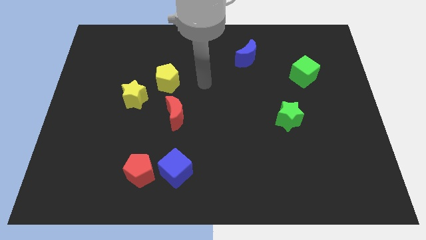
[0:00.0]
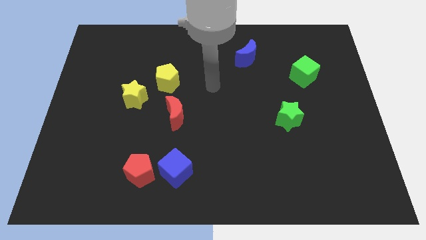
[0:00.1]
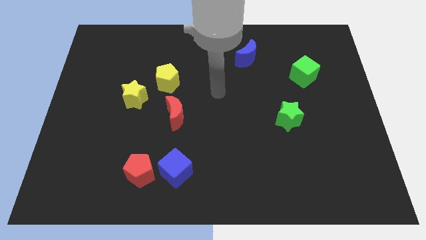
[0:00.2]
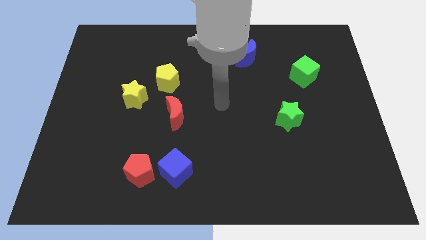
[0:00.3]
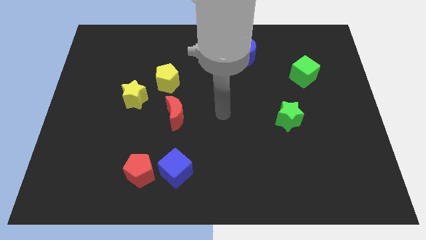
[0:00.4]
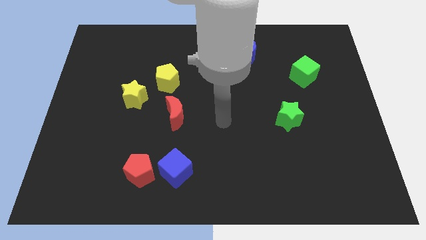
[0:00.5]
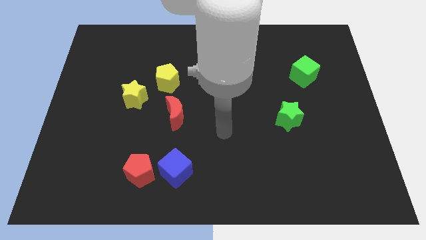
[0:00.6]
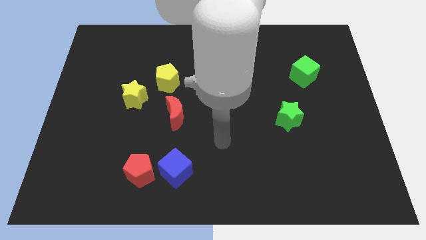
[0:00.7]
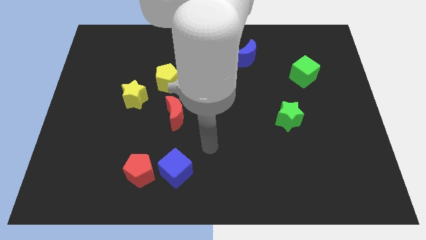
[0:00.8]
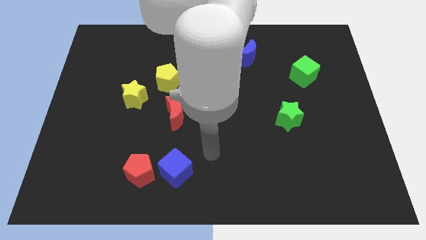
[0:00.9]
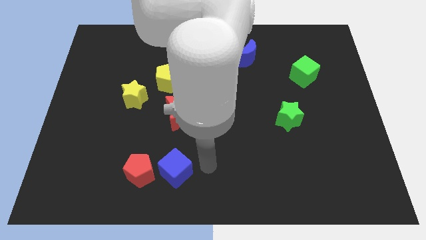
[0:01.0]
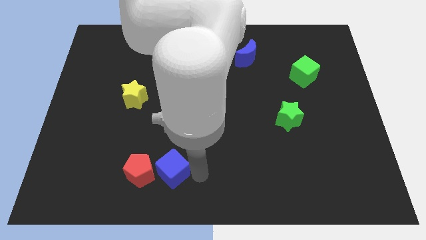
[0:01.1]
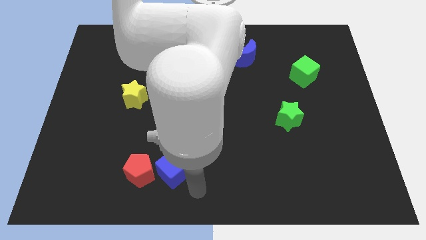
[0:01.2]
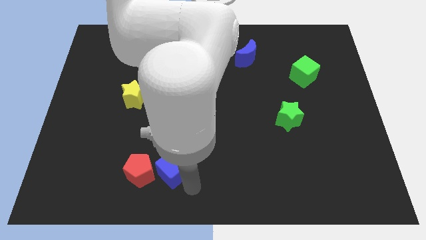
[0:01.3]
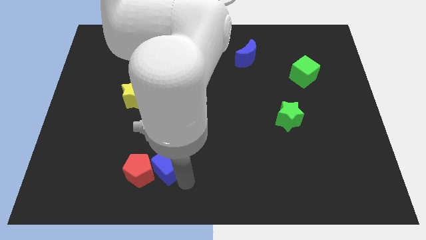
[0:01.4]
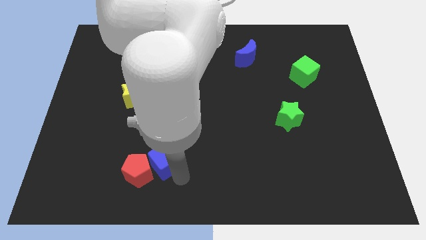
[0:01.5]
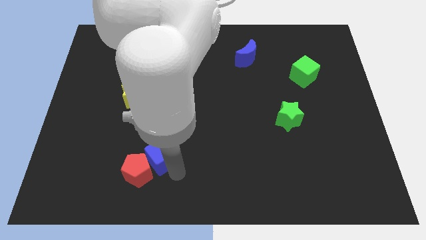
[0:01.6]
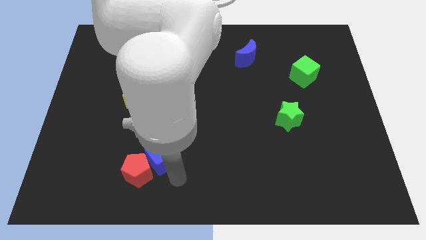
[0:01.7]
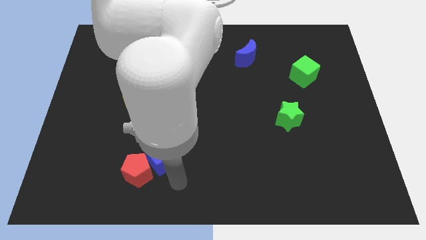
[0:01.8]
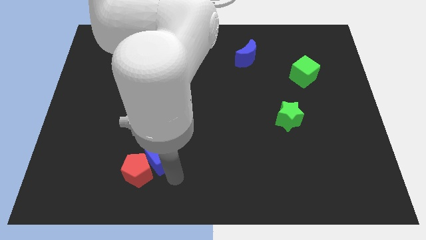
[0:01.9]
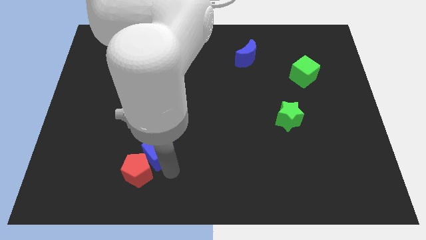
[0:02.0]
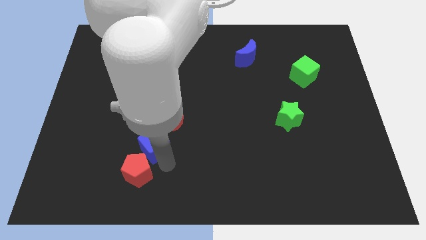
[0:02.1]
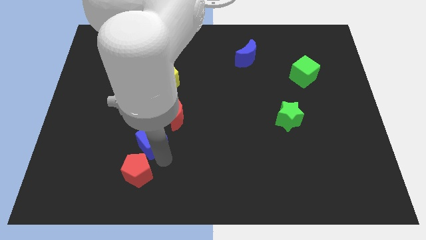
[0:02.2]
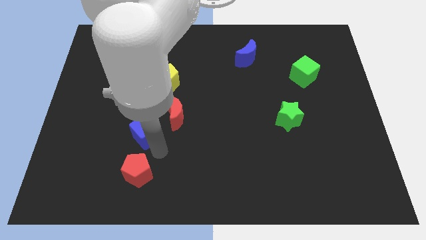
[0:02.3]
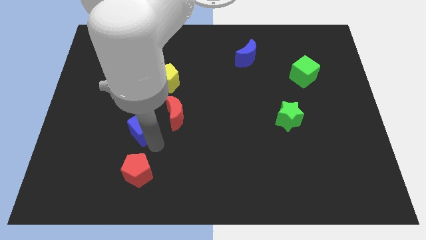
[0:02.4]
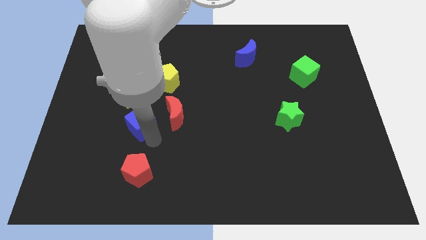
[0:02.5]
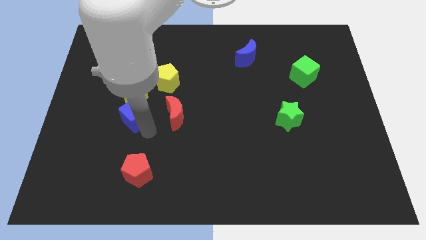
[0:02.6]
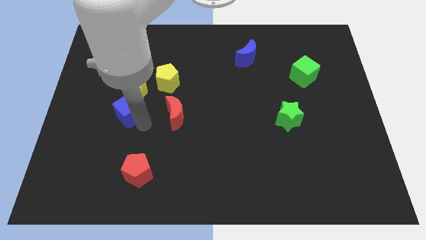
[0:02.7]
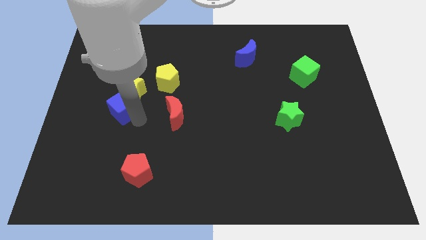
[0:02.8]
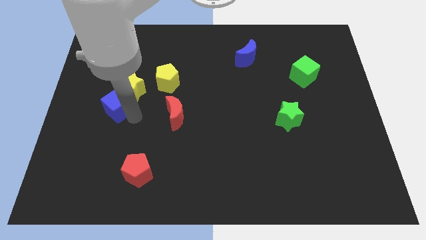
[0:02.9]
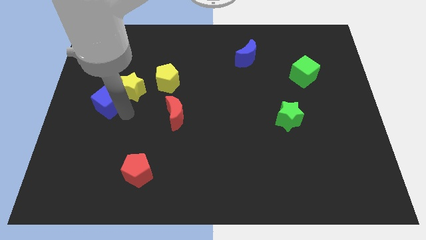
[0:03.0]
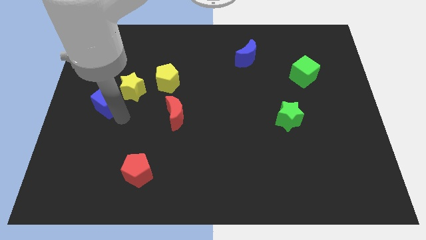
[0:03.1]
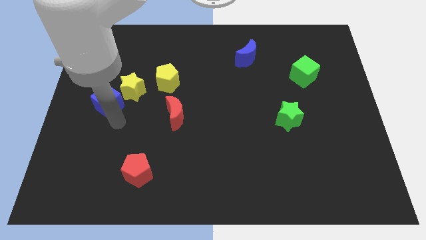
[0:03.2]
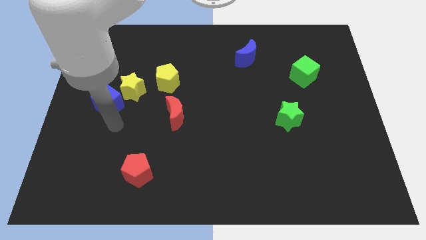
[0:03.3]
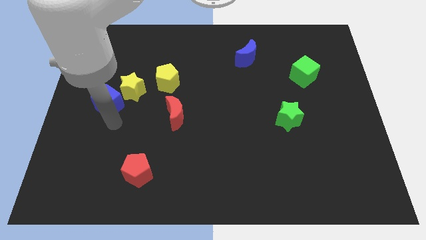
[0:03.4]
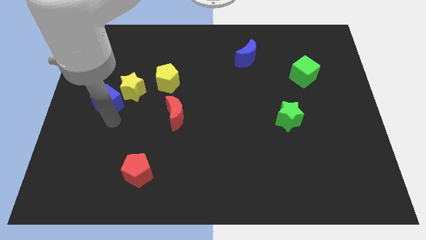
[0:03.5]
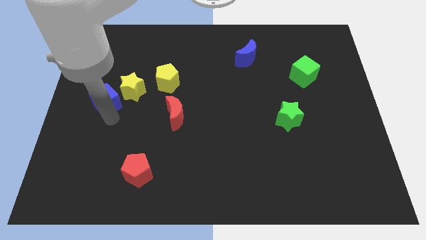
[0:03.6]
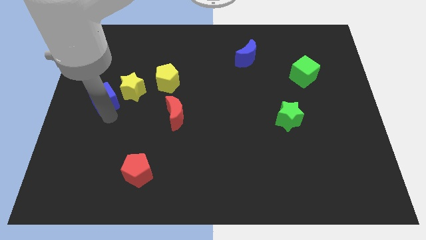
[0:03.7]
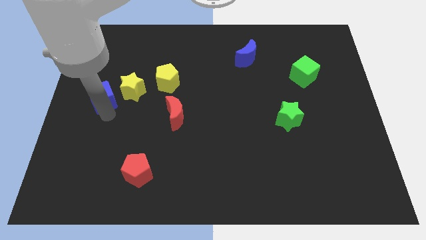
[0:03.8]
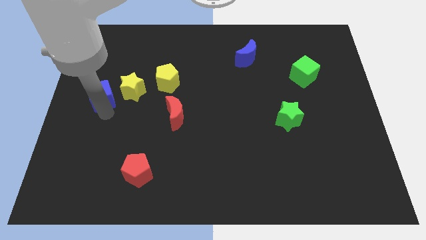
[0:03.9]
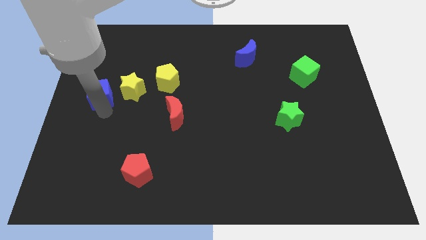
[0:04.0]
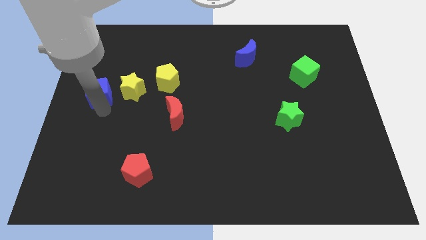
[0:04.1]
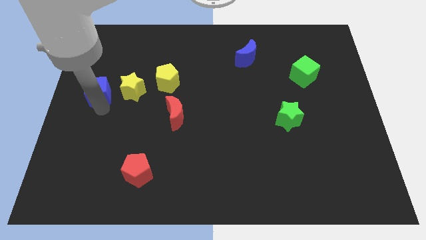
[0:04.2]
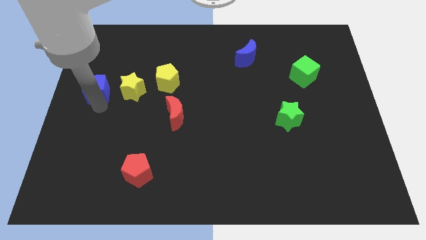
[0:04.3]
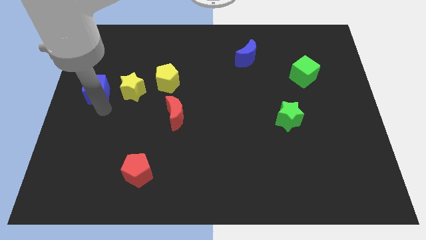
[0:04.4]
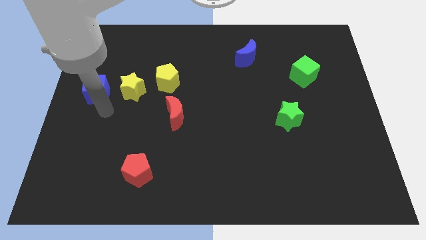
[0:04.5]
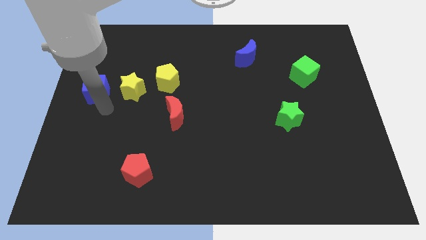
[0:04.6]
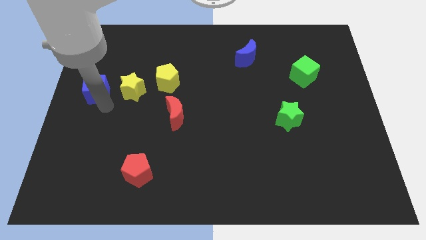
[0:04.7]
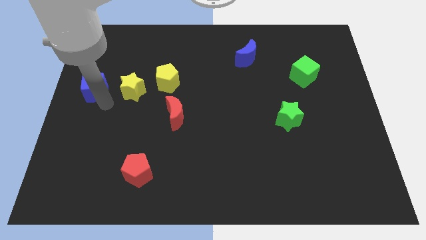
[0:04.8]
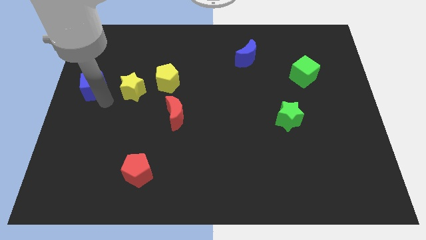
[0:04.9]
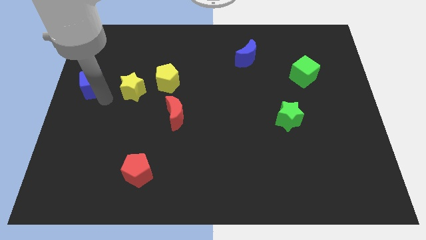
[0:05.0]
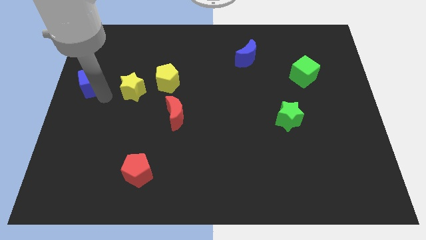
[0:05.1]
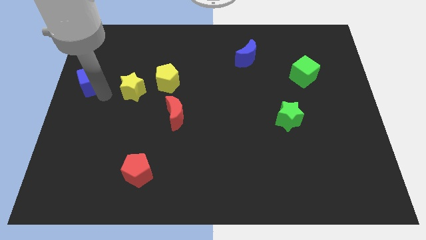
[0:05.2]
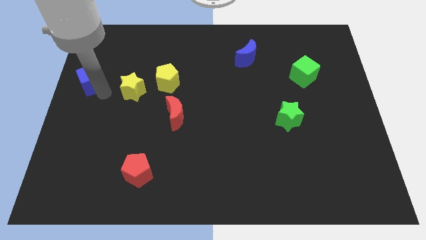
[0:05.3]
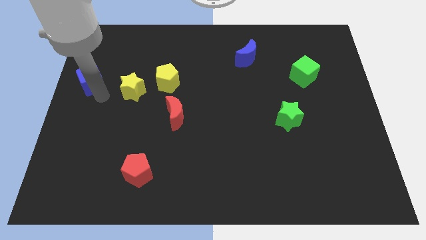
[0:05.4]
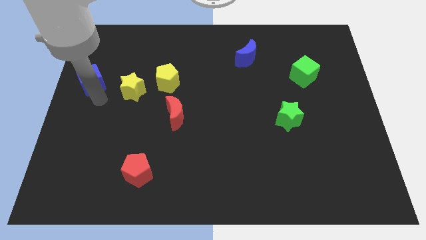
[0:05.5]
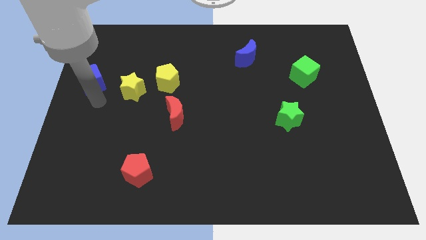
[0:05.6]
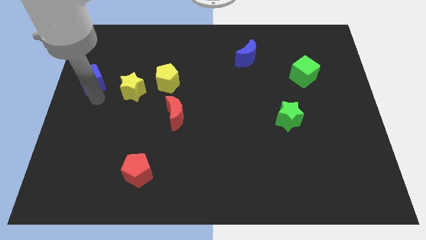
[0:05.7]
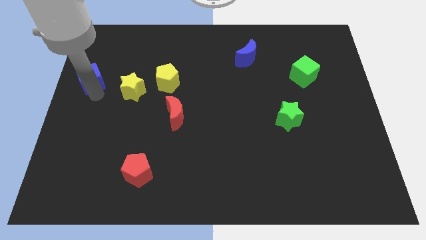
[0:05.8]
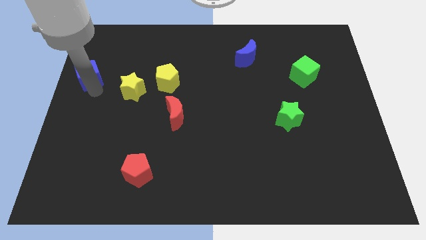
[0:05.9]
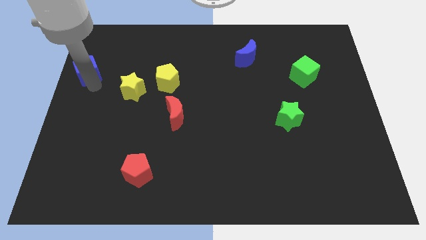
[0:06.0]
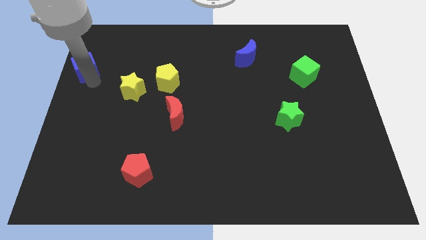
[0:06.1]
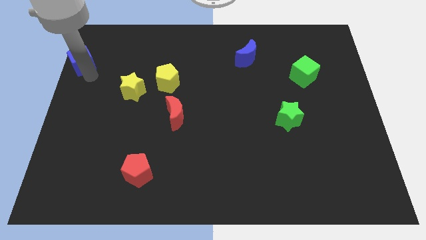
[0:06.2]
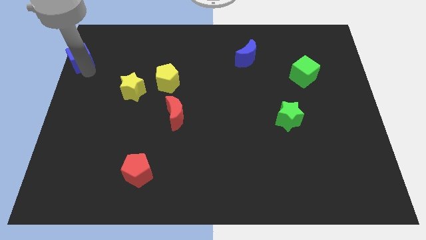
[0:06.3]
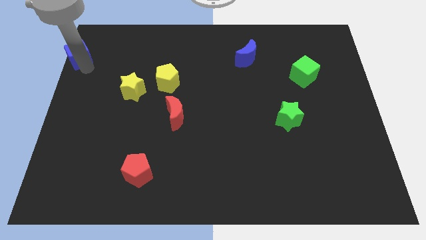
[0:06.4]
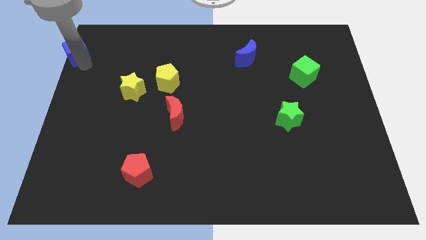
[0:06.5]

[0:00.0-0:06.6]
put the blue cube to the upper left corner

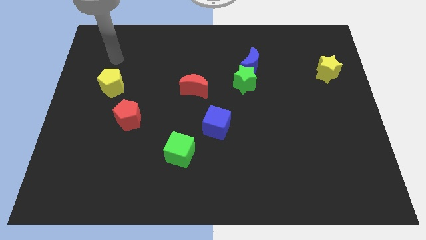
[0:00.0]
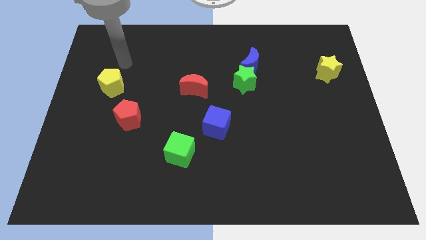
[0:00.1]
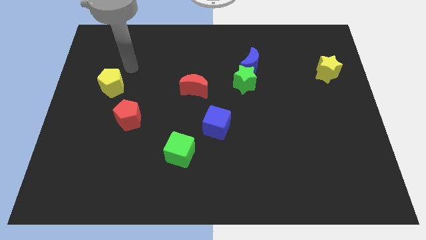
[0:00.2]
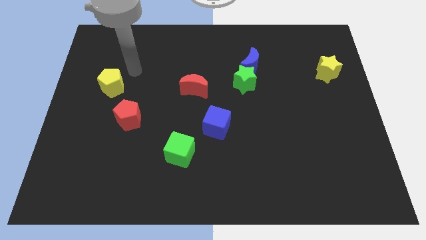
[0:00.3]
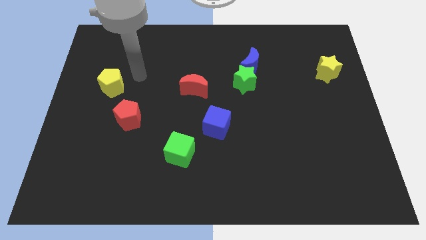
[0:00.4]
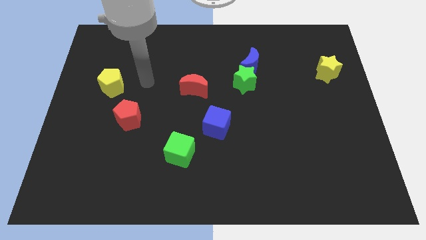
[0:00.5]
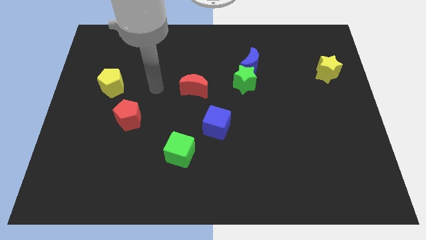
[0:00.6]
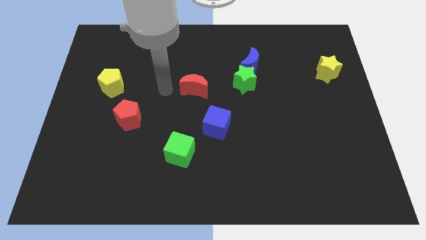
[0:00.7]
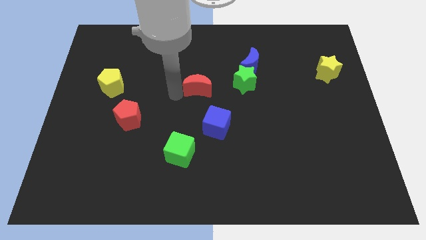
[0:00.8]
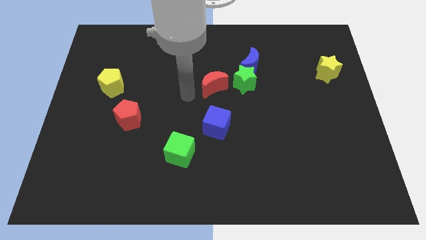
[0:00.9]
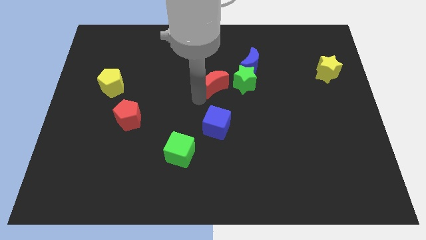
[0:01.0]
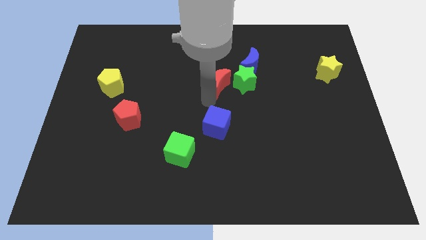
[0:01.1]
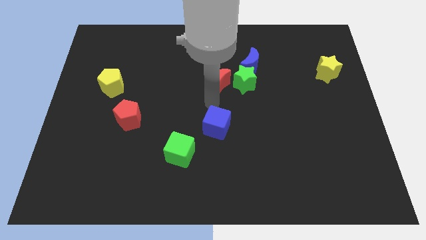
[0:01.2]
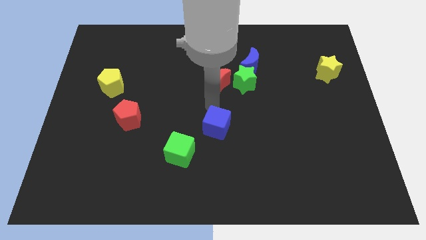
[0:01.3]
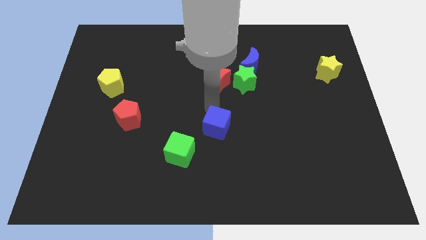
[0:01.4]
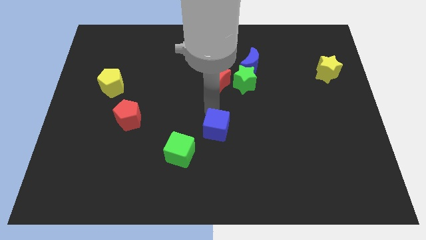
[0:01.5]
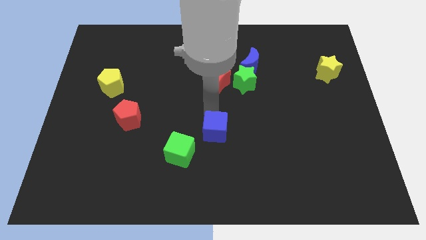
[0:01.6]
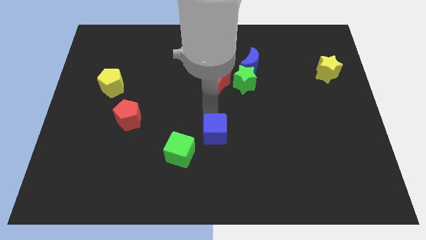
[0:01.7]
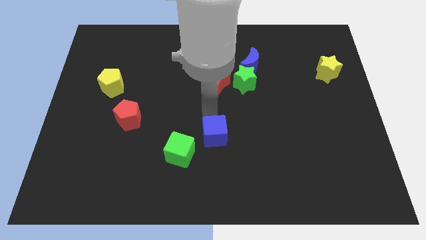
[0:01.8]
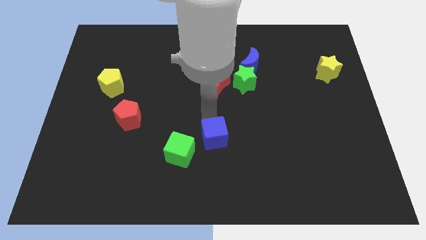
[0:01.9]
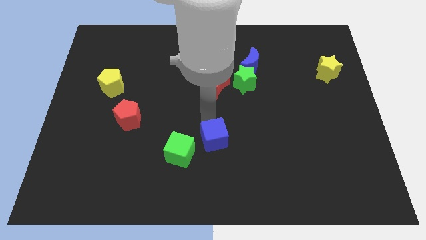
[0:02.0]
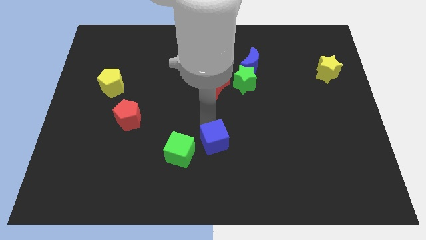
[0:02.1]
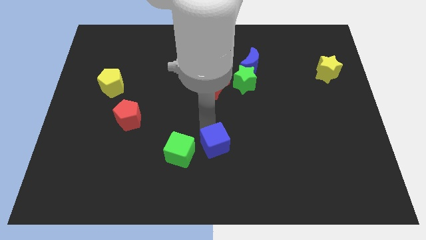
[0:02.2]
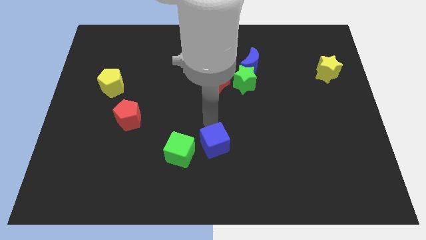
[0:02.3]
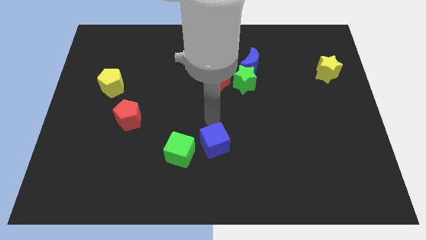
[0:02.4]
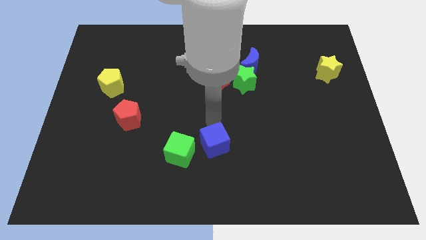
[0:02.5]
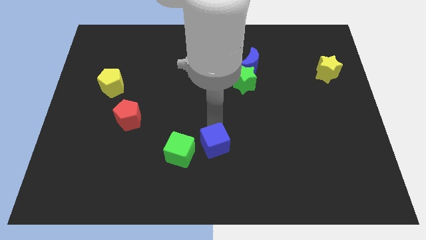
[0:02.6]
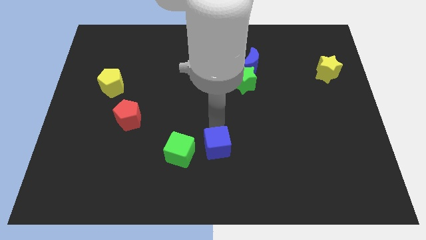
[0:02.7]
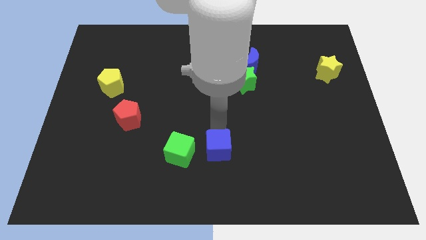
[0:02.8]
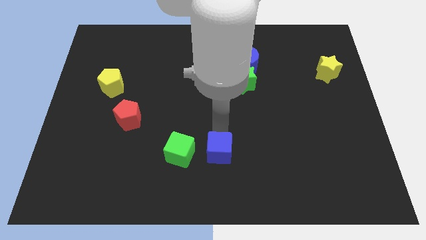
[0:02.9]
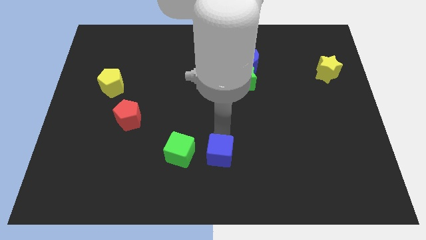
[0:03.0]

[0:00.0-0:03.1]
slide the blue cube to the bottom side
